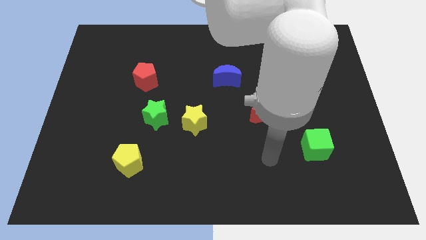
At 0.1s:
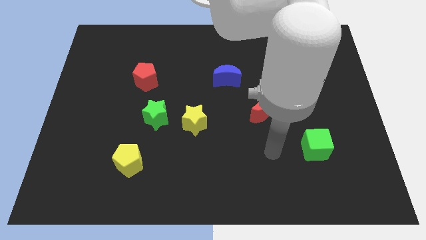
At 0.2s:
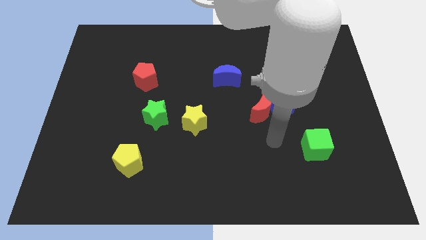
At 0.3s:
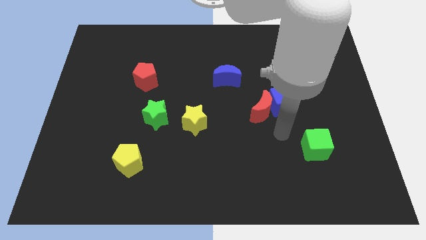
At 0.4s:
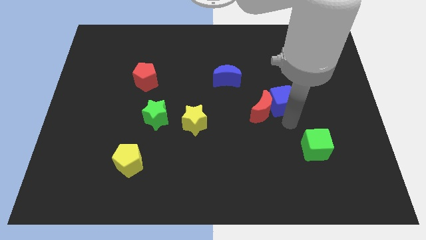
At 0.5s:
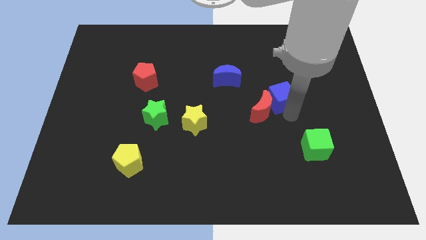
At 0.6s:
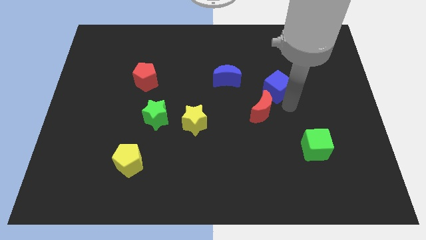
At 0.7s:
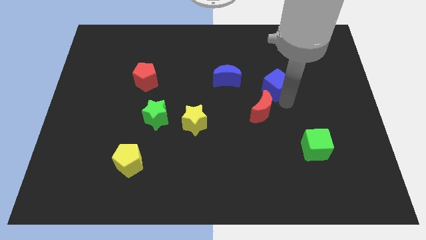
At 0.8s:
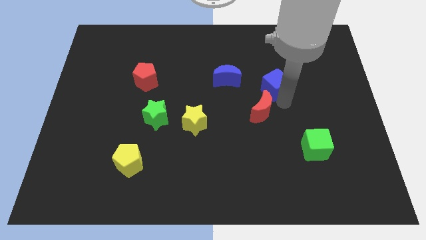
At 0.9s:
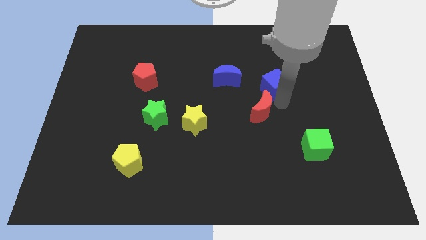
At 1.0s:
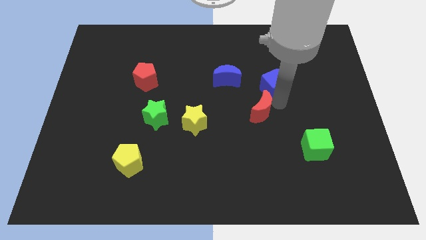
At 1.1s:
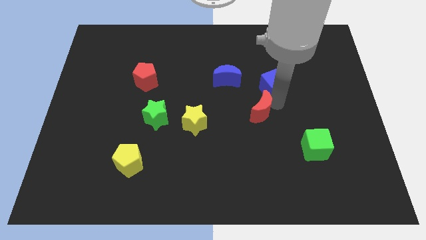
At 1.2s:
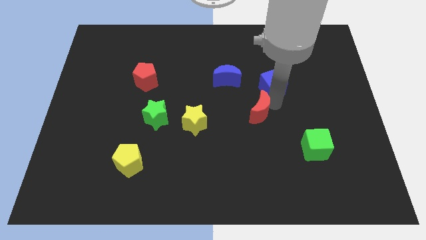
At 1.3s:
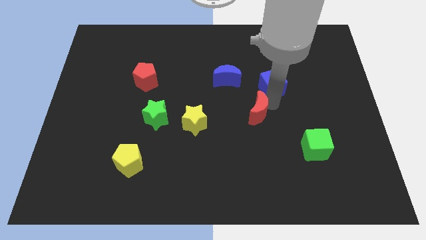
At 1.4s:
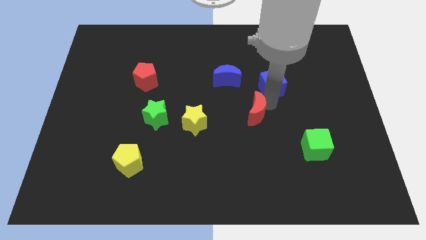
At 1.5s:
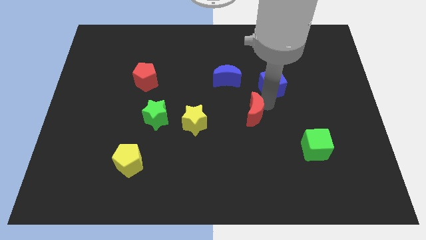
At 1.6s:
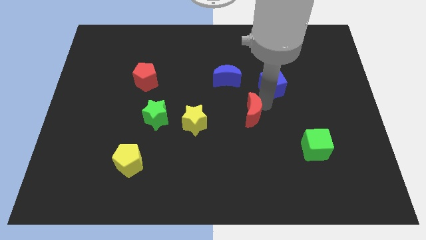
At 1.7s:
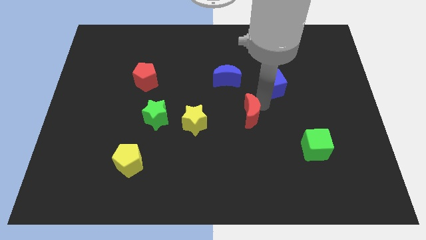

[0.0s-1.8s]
move the red moon away from the blue cube

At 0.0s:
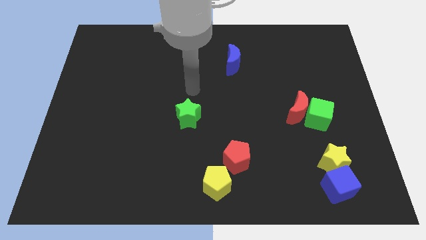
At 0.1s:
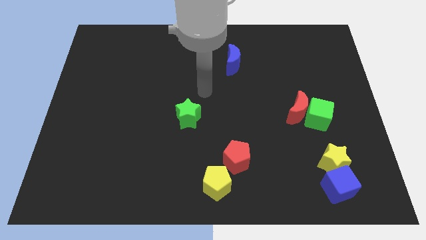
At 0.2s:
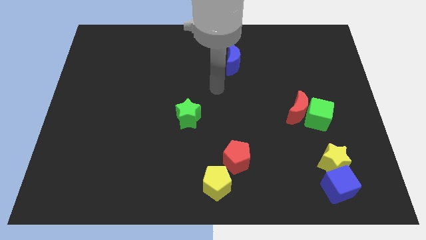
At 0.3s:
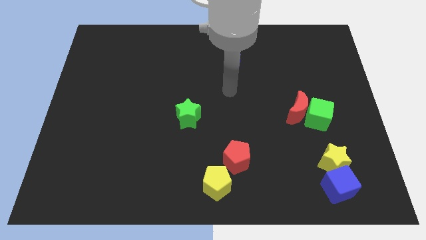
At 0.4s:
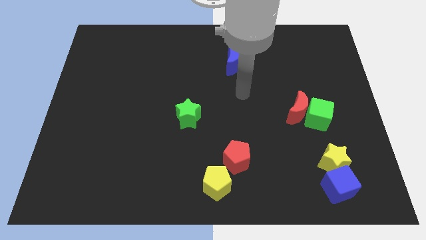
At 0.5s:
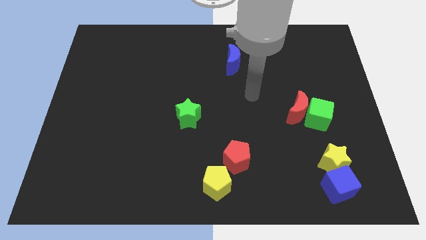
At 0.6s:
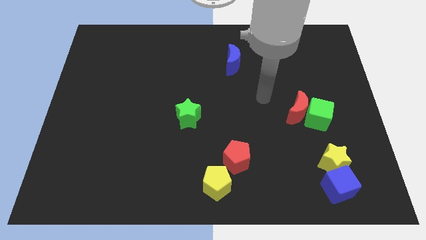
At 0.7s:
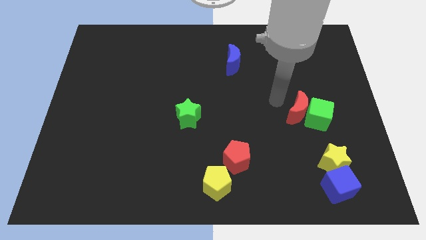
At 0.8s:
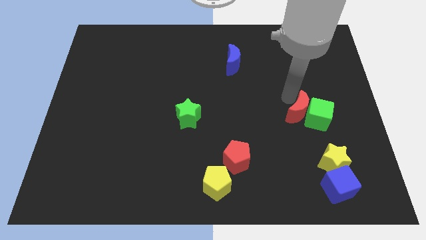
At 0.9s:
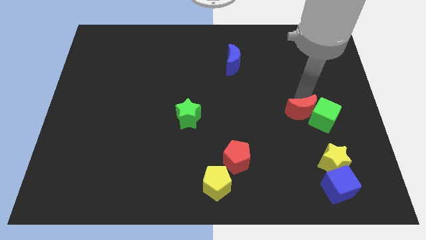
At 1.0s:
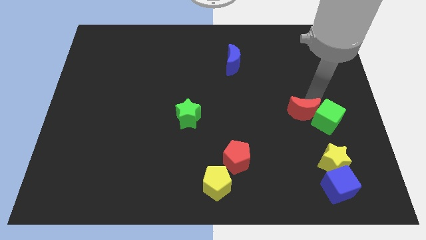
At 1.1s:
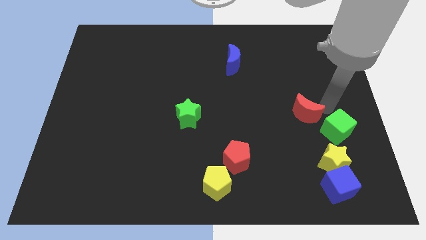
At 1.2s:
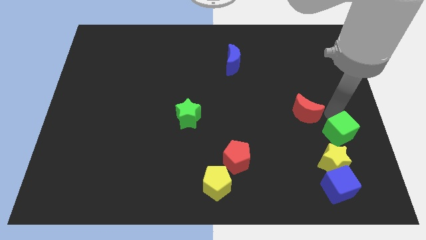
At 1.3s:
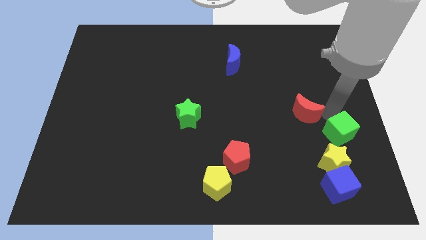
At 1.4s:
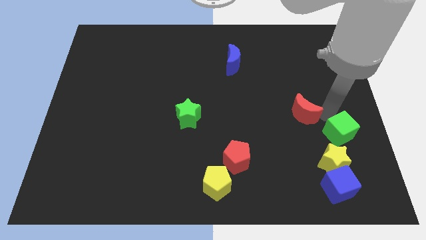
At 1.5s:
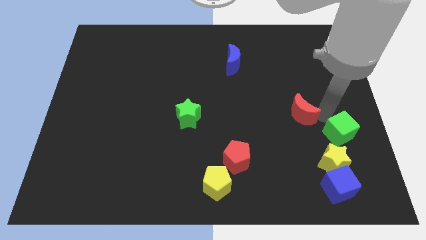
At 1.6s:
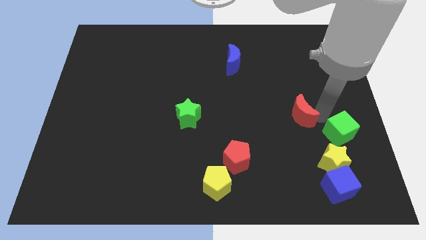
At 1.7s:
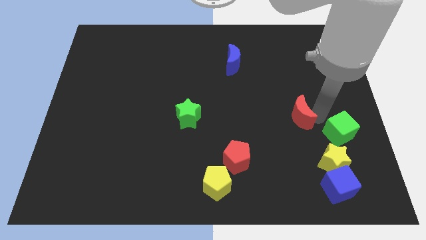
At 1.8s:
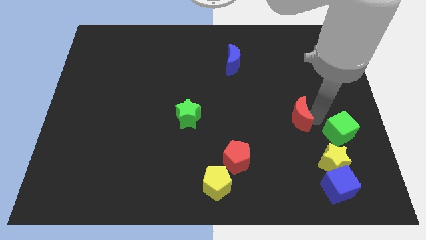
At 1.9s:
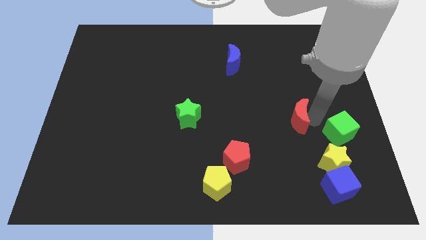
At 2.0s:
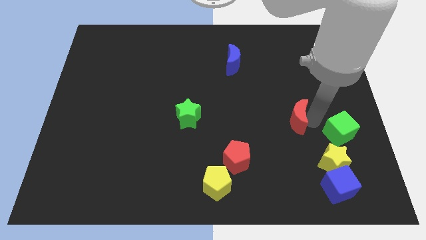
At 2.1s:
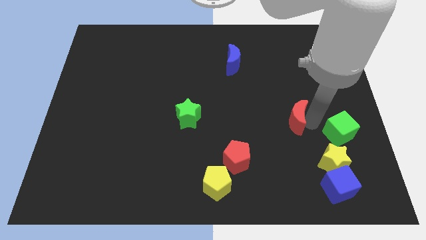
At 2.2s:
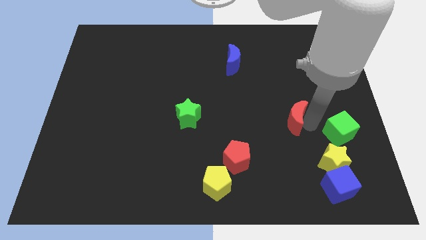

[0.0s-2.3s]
separate the red moon from the green cube

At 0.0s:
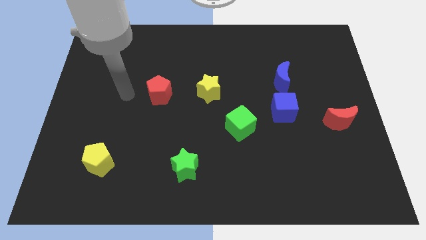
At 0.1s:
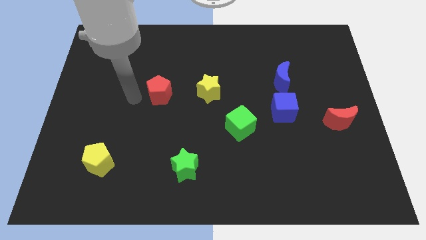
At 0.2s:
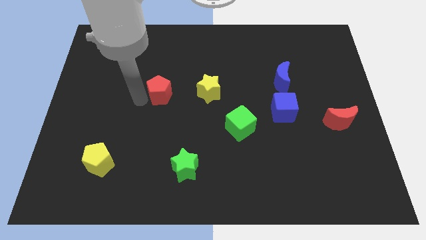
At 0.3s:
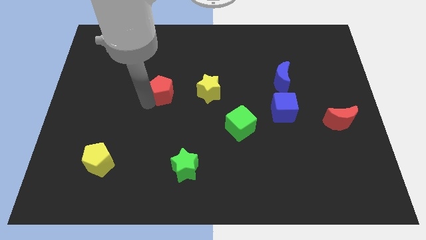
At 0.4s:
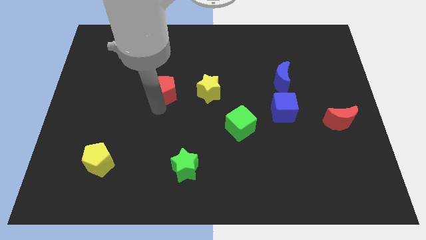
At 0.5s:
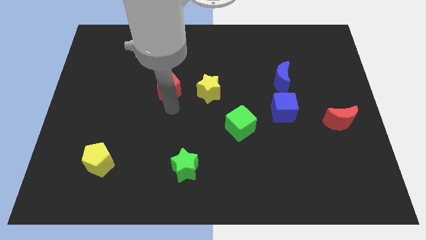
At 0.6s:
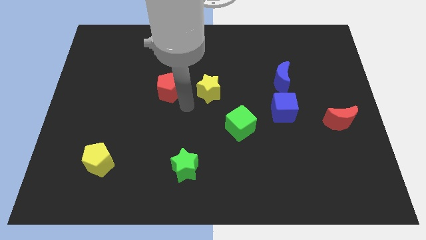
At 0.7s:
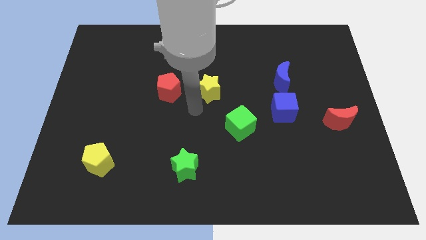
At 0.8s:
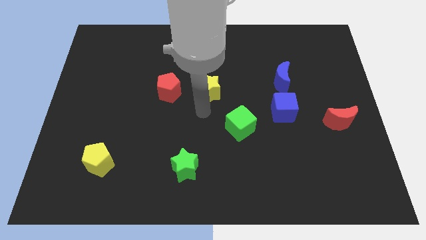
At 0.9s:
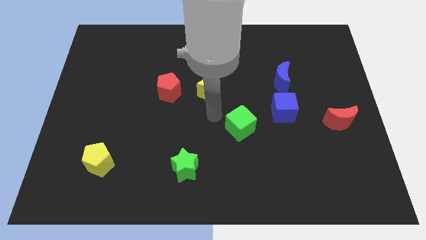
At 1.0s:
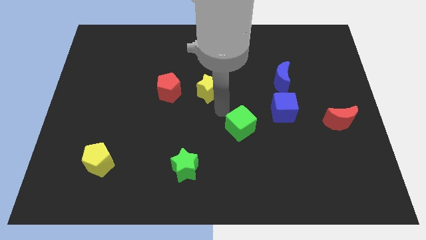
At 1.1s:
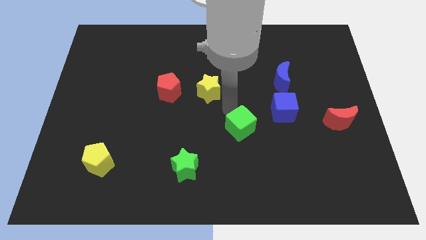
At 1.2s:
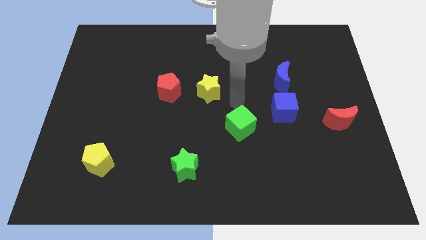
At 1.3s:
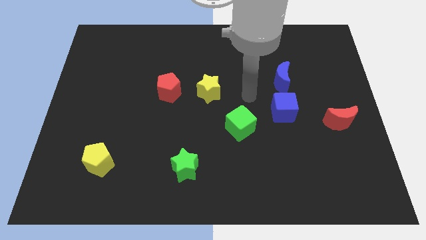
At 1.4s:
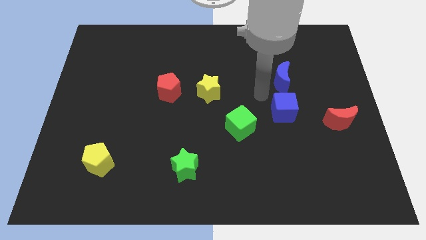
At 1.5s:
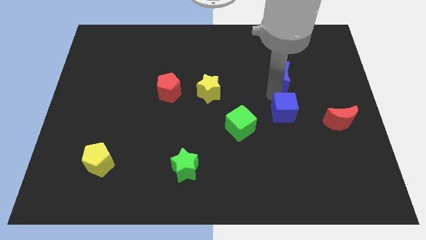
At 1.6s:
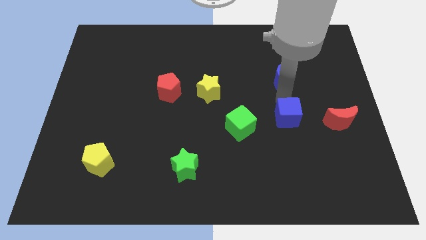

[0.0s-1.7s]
move the blue moon away from the blue cube

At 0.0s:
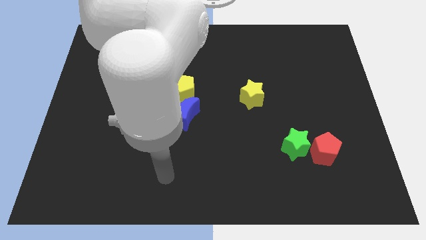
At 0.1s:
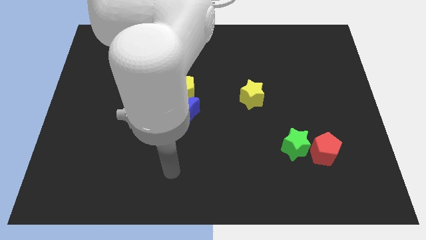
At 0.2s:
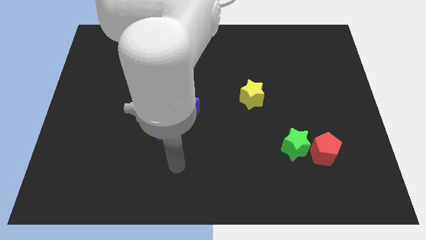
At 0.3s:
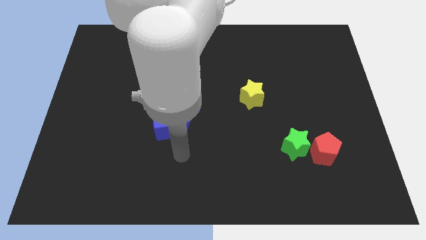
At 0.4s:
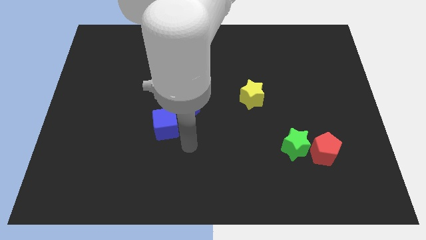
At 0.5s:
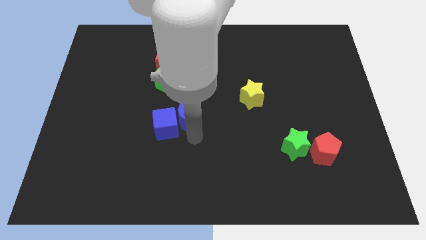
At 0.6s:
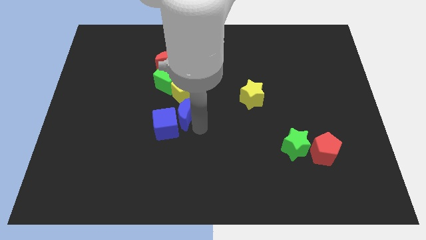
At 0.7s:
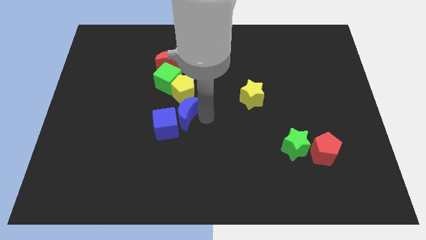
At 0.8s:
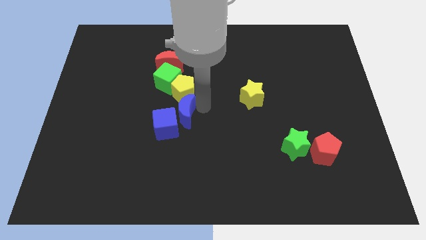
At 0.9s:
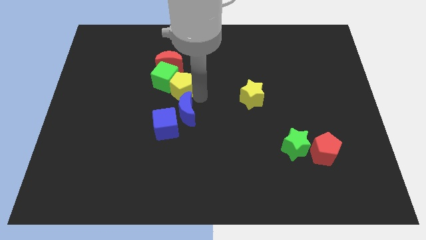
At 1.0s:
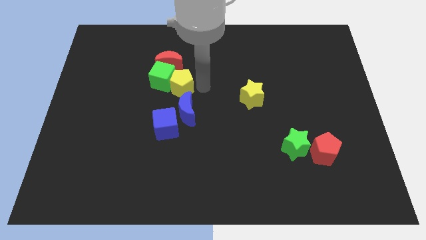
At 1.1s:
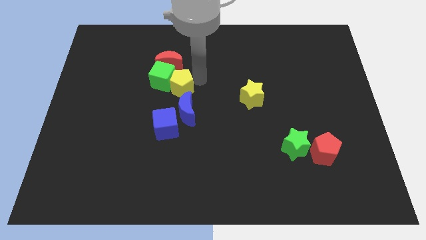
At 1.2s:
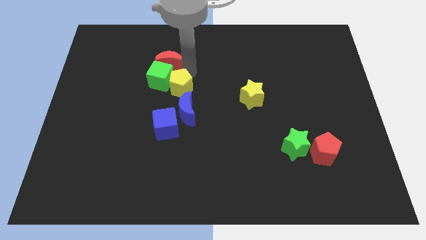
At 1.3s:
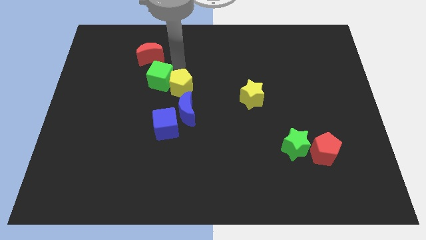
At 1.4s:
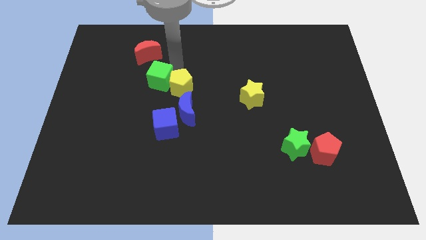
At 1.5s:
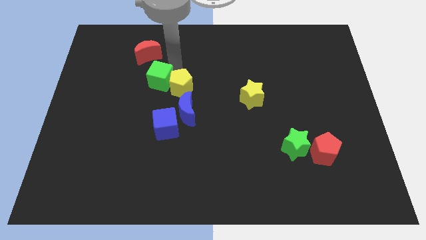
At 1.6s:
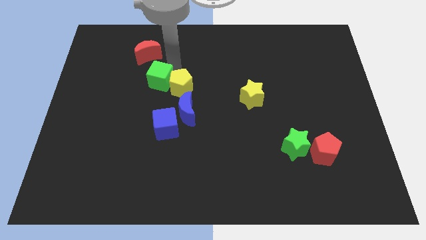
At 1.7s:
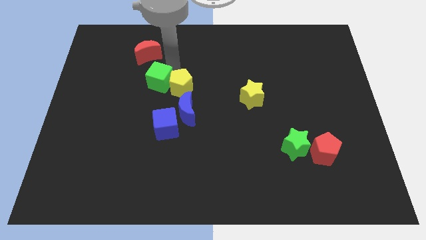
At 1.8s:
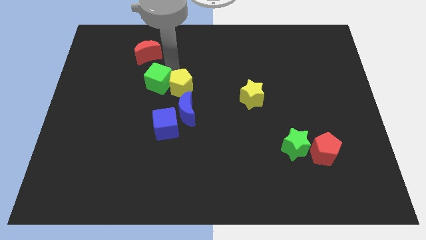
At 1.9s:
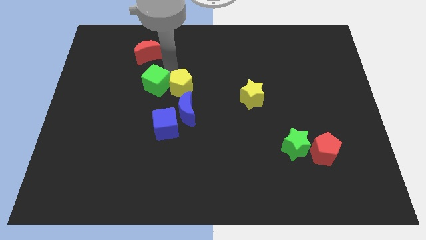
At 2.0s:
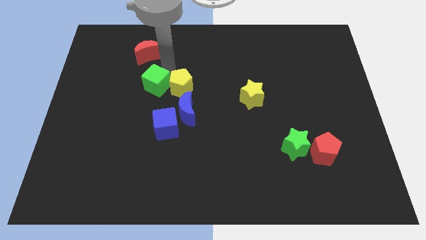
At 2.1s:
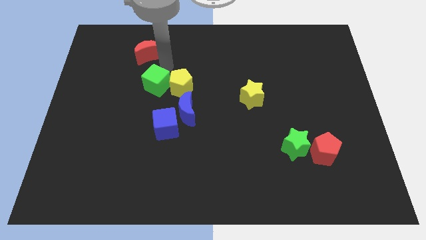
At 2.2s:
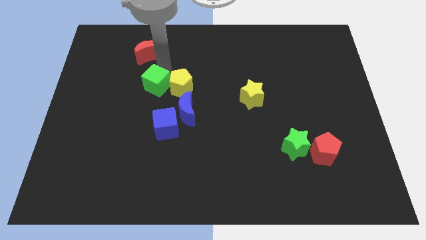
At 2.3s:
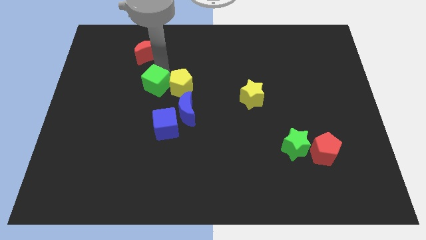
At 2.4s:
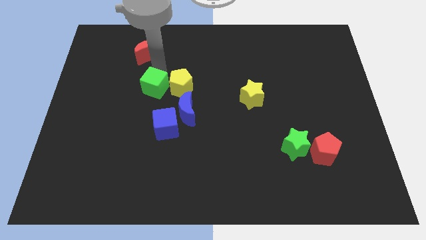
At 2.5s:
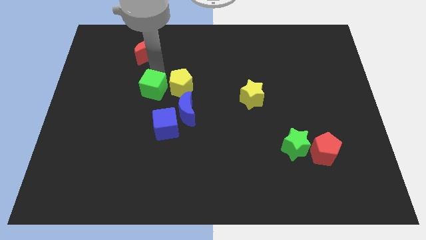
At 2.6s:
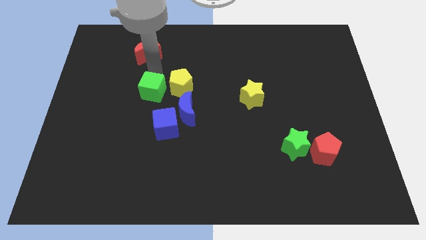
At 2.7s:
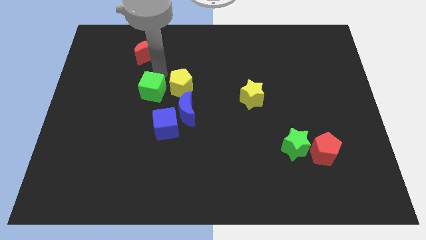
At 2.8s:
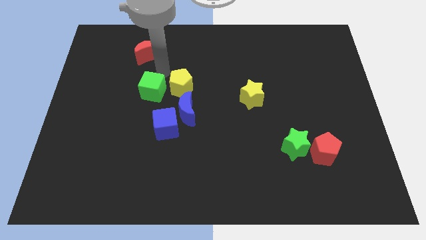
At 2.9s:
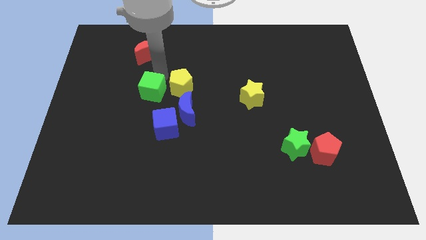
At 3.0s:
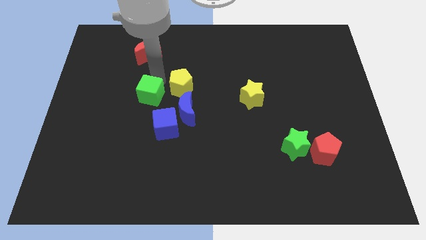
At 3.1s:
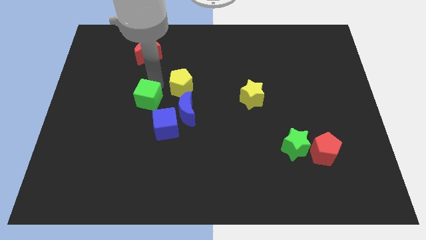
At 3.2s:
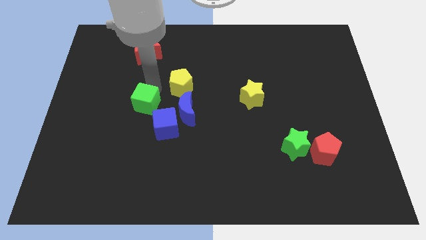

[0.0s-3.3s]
pull the green cube apart from the yellow pentagon and red moon

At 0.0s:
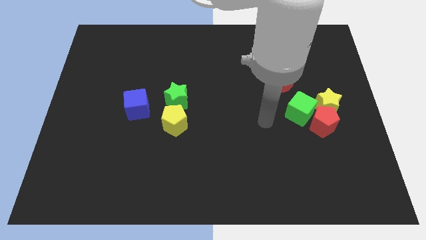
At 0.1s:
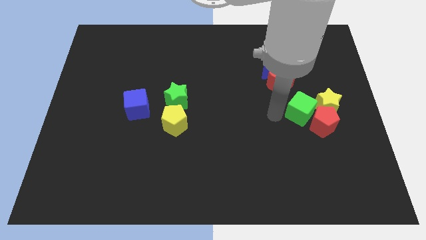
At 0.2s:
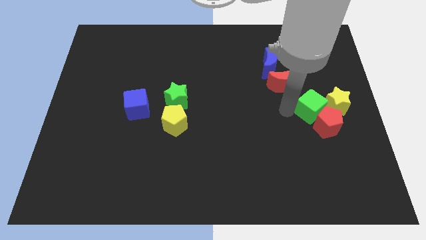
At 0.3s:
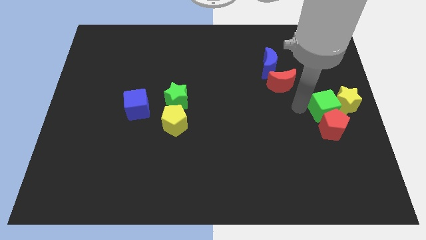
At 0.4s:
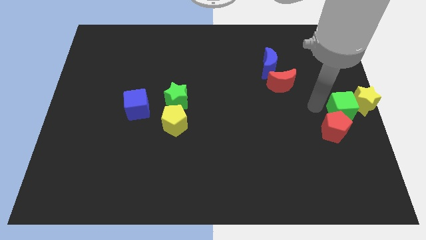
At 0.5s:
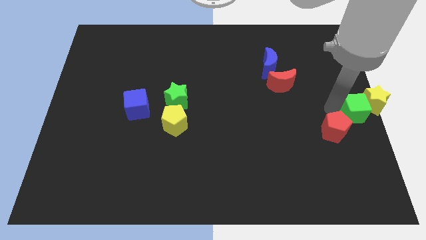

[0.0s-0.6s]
separate the red pentagon from the yellow star and green cube
